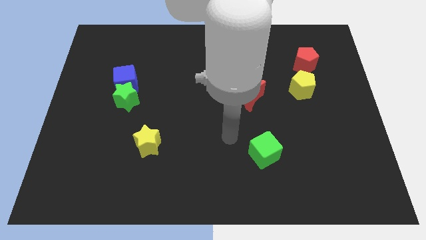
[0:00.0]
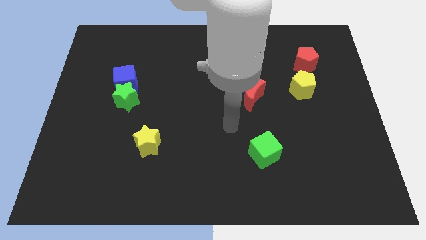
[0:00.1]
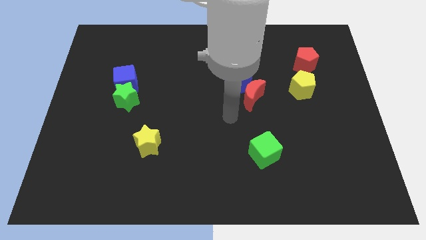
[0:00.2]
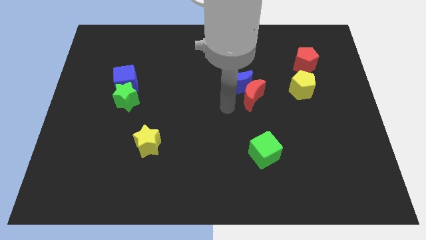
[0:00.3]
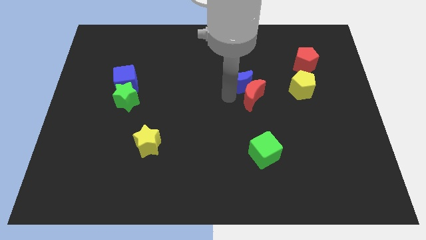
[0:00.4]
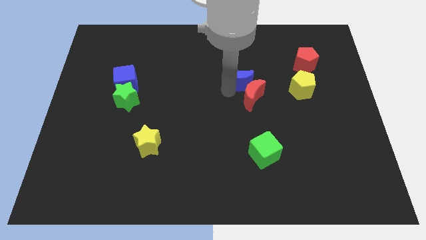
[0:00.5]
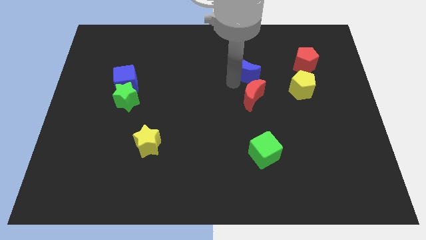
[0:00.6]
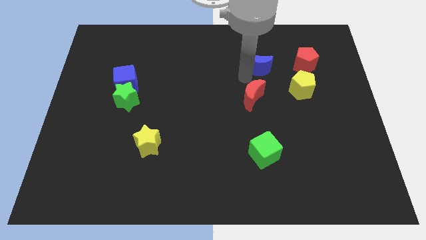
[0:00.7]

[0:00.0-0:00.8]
pull the red moon apart from the blue moon

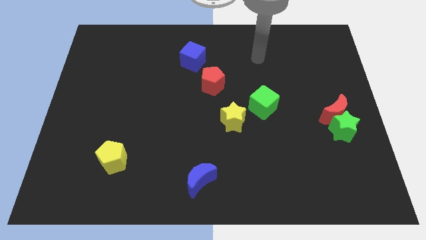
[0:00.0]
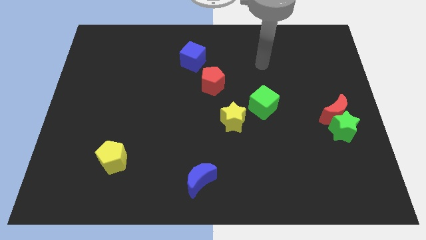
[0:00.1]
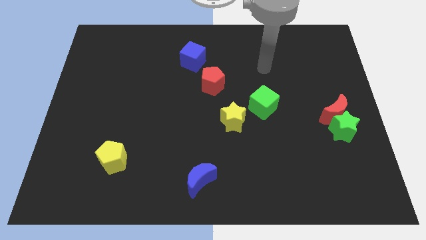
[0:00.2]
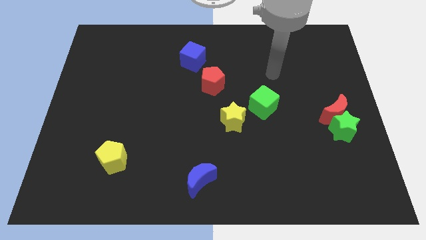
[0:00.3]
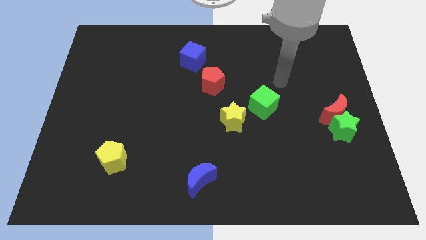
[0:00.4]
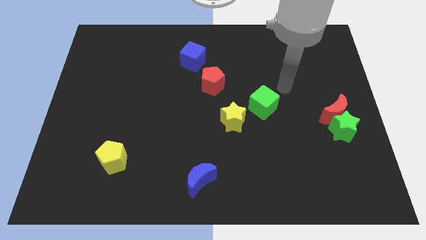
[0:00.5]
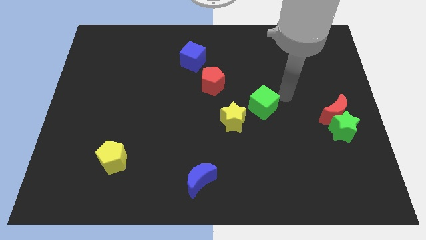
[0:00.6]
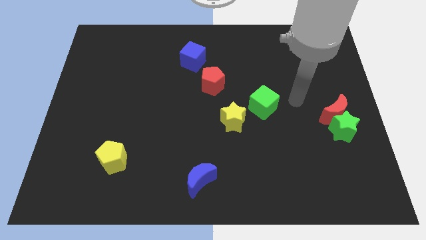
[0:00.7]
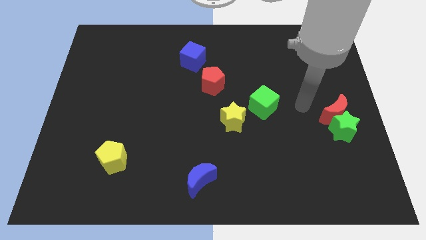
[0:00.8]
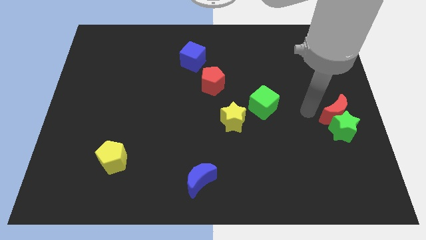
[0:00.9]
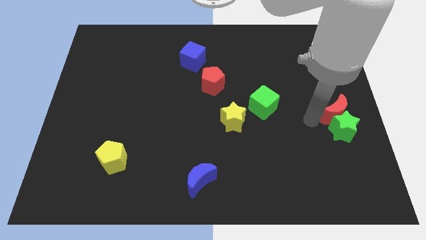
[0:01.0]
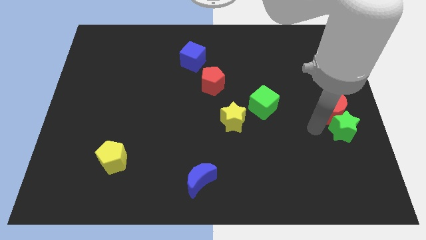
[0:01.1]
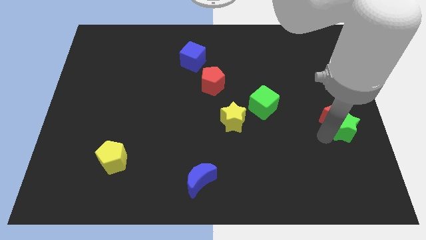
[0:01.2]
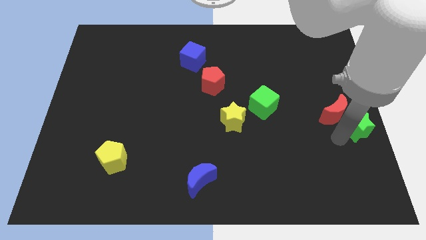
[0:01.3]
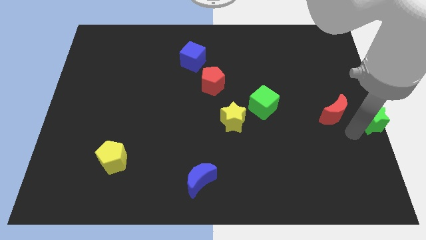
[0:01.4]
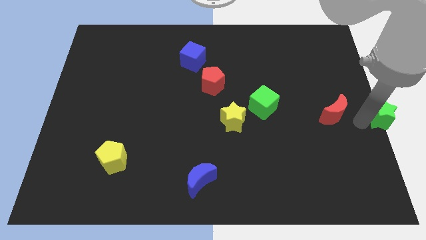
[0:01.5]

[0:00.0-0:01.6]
pull the red moon apart from the green star

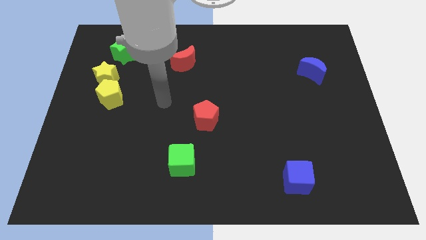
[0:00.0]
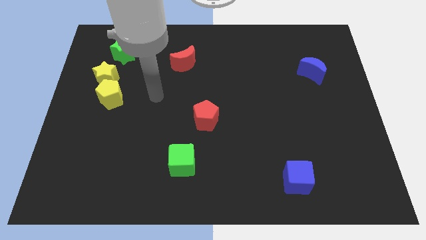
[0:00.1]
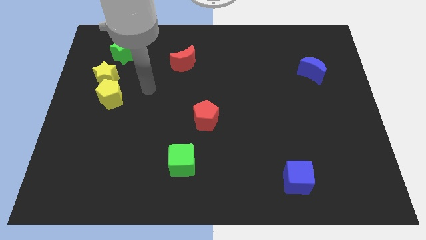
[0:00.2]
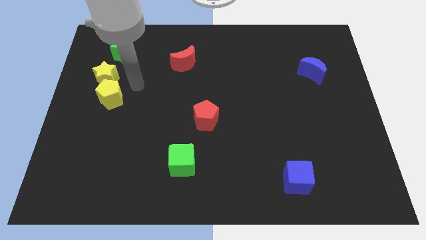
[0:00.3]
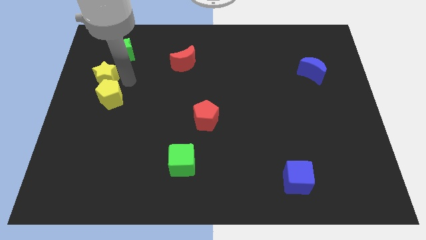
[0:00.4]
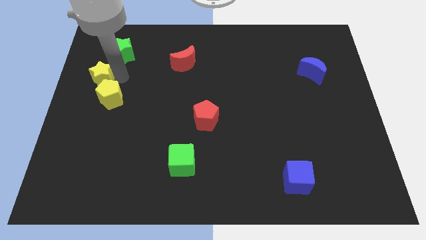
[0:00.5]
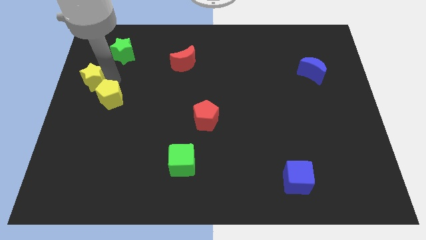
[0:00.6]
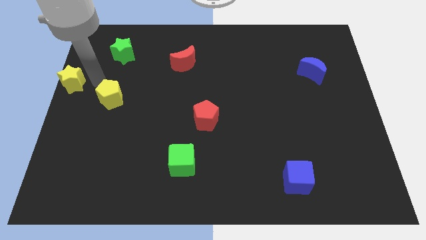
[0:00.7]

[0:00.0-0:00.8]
move the yellow pentagon away from the yellow star

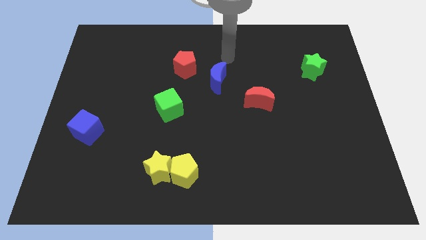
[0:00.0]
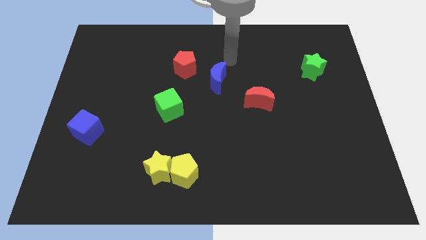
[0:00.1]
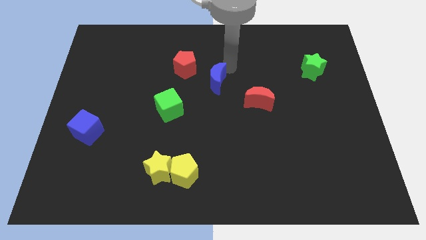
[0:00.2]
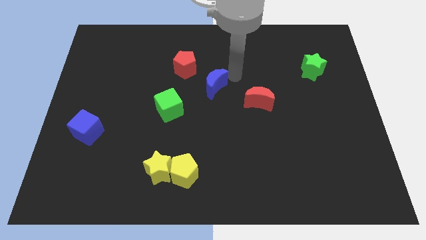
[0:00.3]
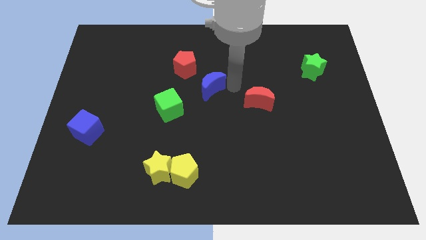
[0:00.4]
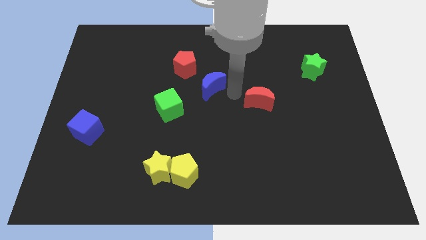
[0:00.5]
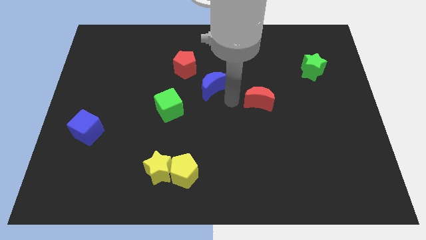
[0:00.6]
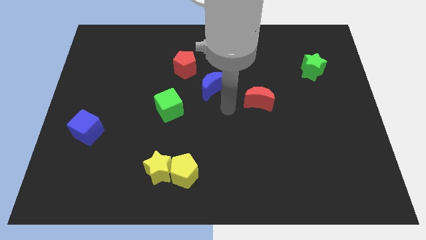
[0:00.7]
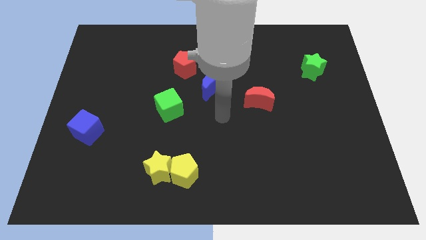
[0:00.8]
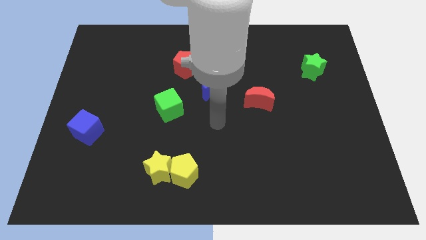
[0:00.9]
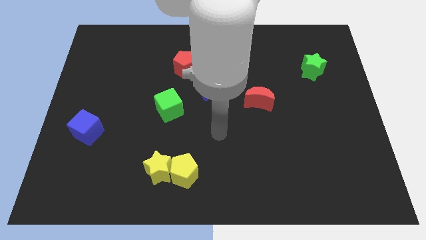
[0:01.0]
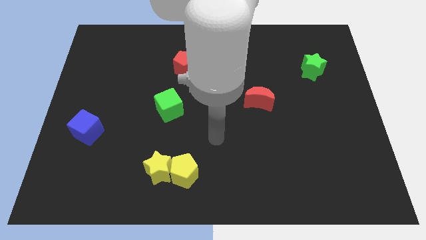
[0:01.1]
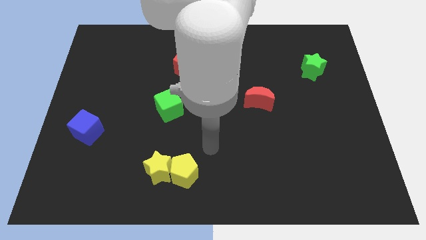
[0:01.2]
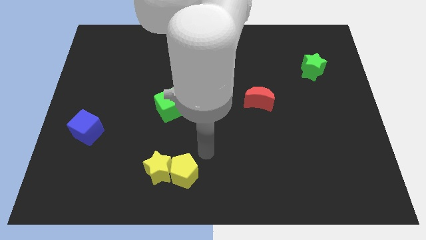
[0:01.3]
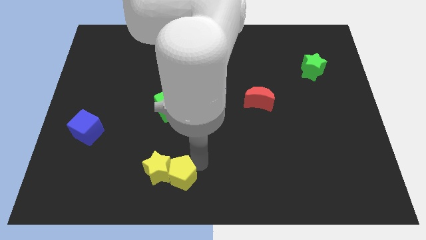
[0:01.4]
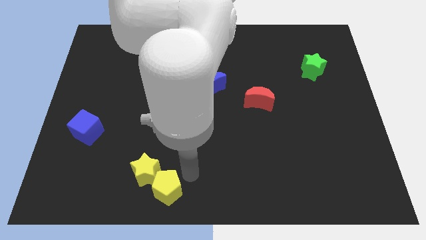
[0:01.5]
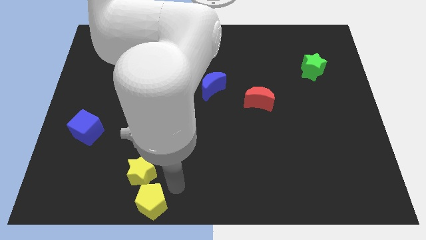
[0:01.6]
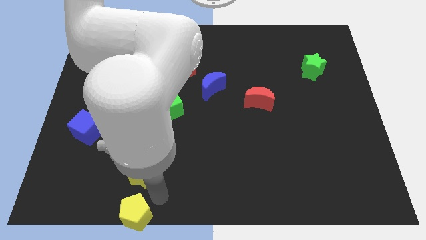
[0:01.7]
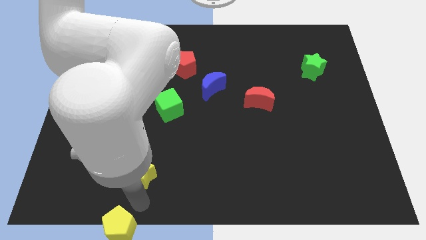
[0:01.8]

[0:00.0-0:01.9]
pull the yellow star apart from the yellow pentagon

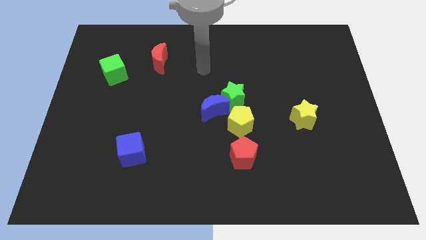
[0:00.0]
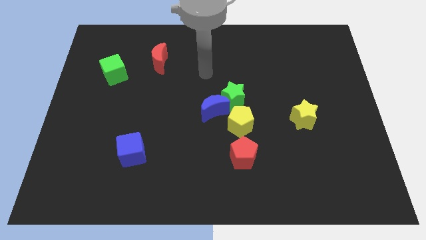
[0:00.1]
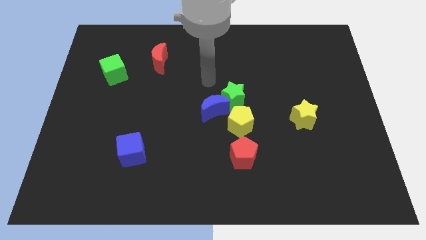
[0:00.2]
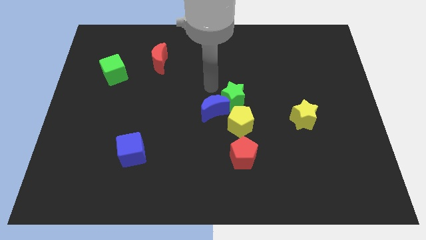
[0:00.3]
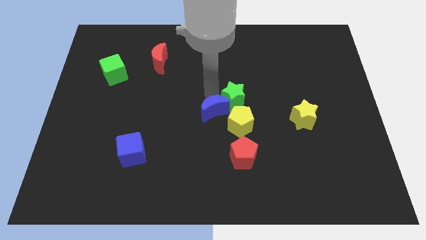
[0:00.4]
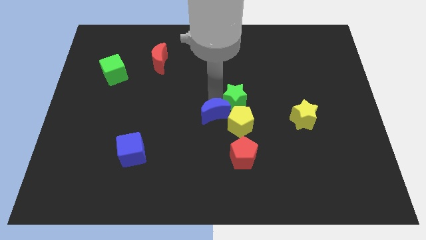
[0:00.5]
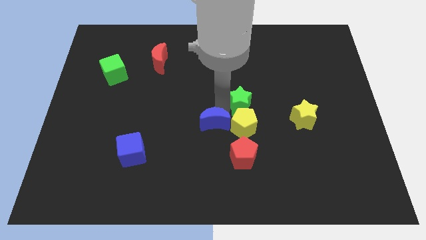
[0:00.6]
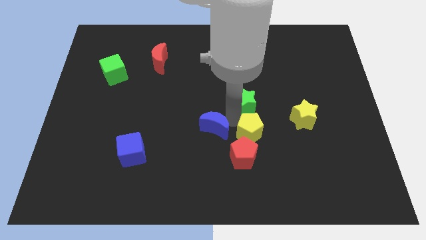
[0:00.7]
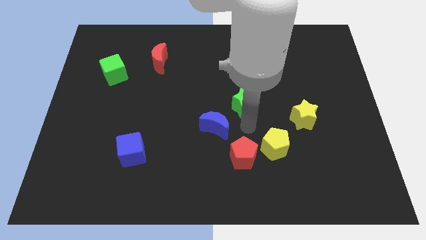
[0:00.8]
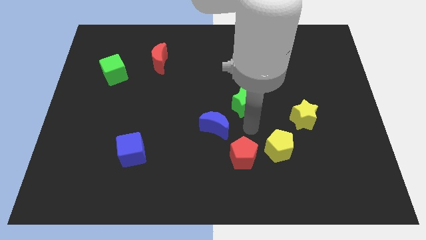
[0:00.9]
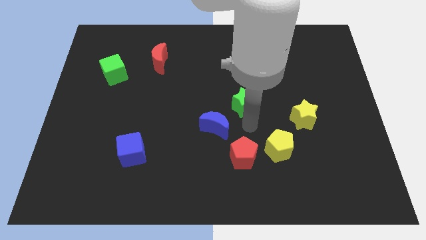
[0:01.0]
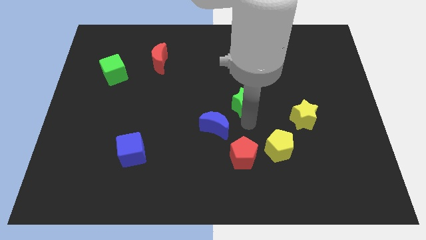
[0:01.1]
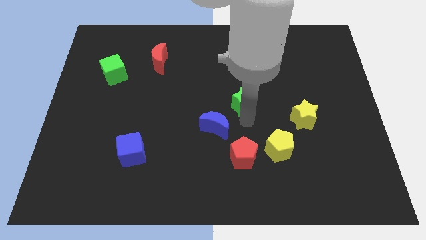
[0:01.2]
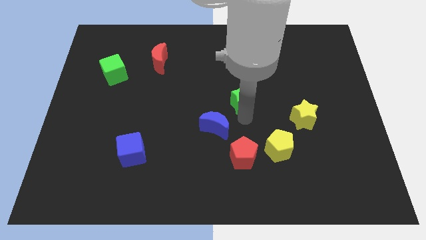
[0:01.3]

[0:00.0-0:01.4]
pull the green star apart from the blue moon and yellow pentagon

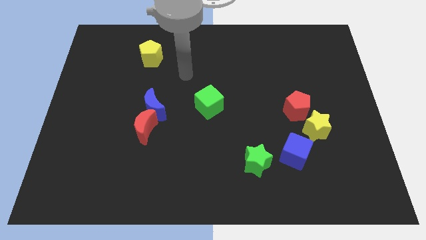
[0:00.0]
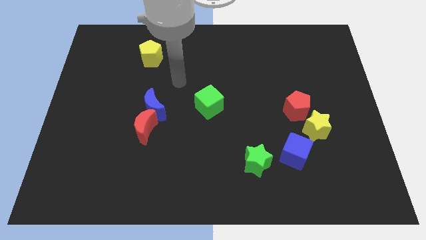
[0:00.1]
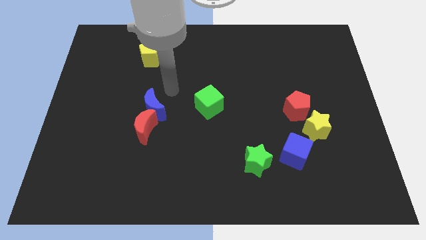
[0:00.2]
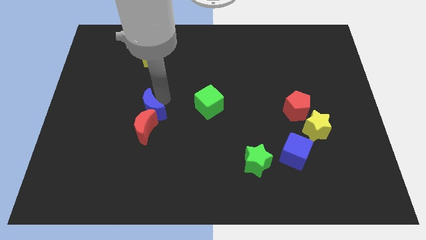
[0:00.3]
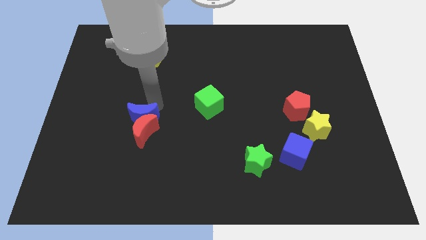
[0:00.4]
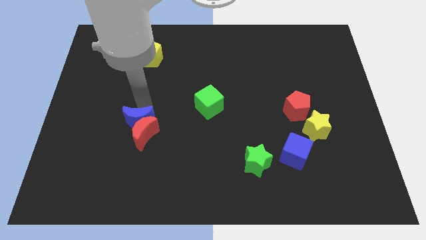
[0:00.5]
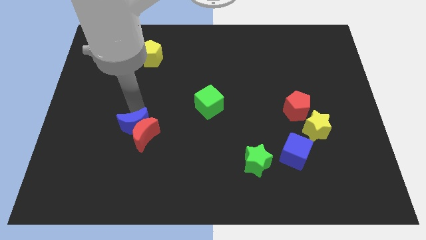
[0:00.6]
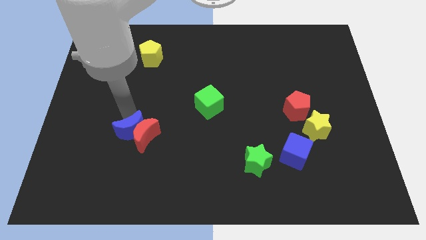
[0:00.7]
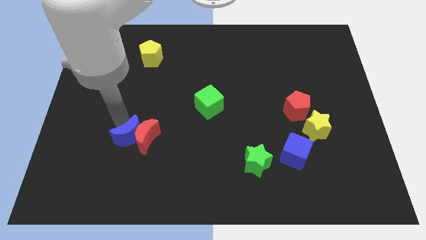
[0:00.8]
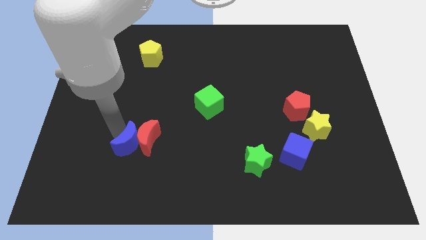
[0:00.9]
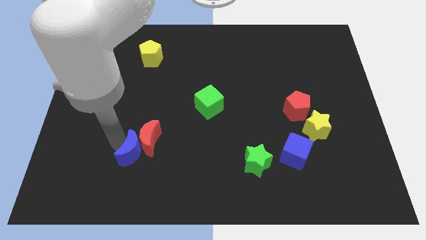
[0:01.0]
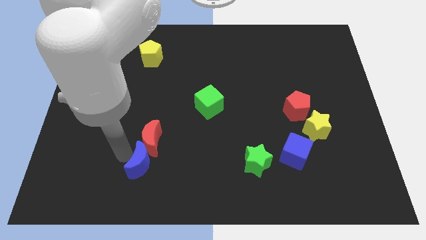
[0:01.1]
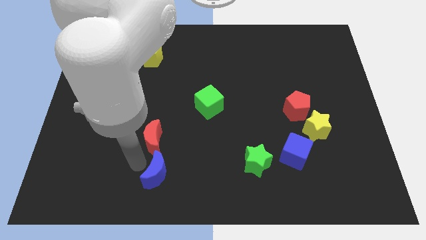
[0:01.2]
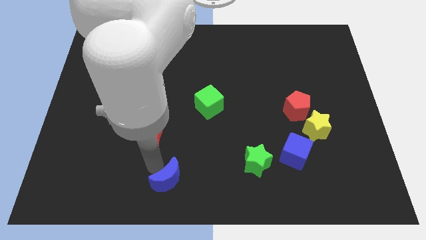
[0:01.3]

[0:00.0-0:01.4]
separate the red moon from the blue moon

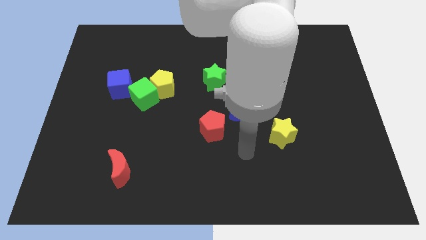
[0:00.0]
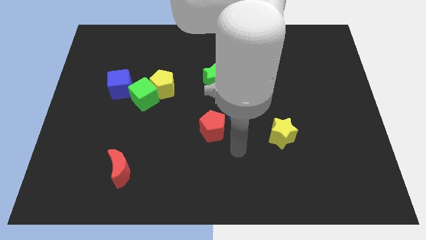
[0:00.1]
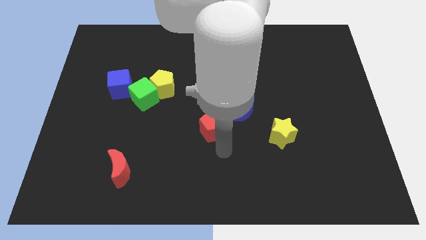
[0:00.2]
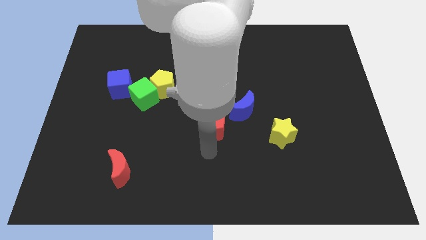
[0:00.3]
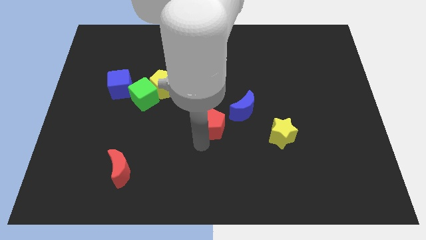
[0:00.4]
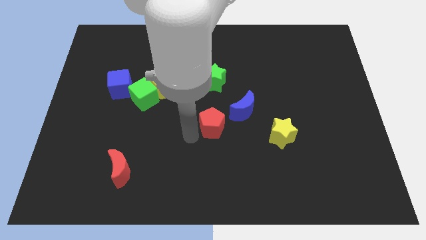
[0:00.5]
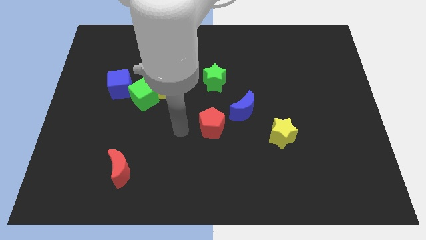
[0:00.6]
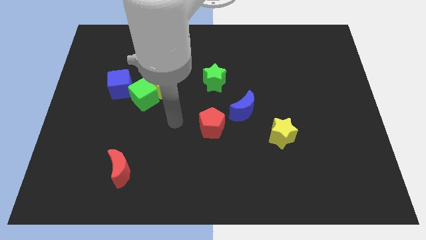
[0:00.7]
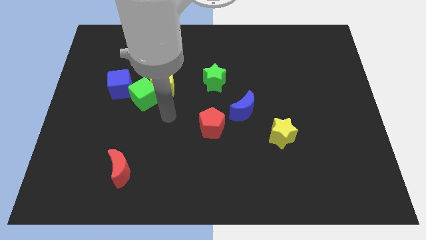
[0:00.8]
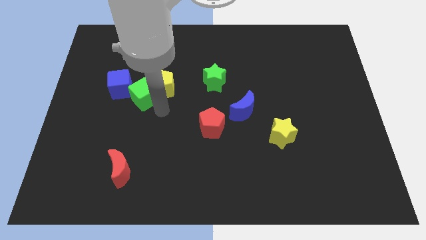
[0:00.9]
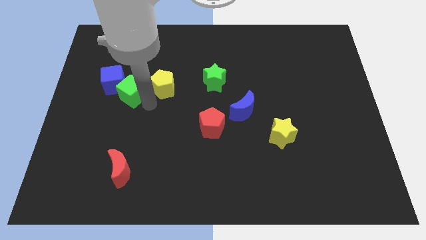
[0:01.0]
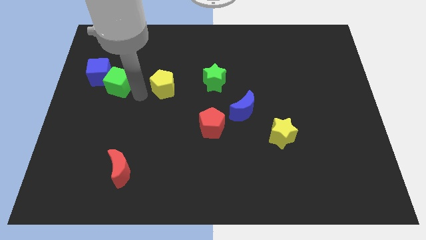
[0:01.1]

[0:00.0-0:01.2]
move the yellow pentagon away from the green cube
